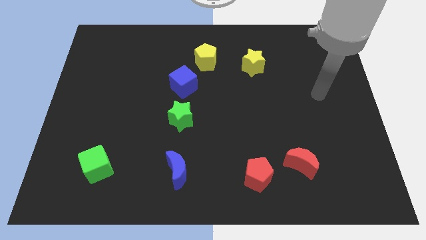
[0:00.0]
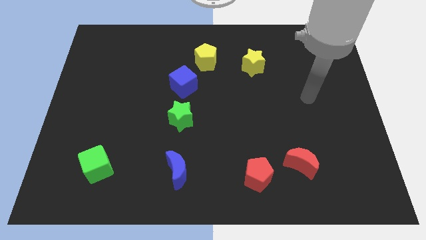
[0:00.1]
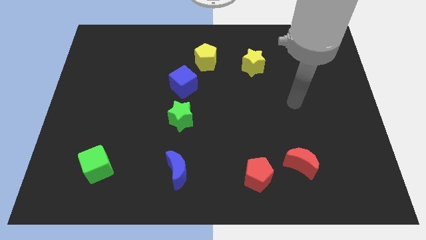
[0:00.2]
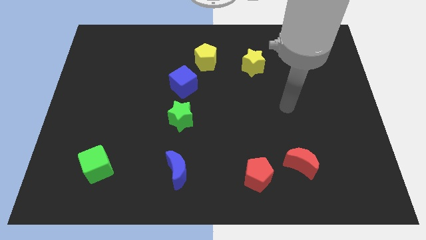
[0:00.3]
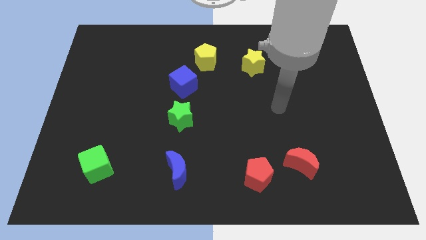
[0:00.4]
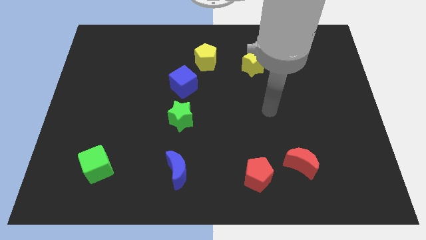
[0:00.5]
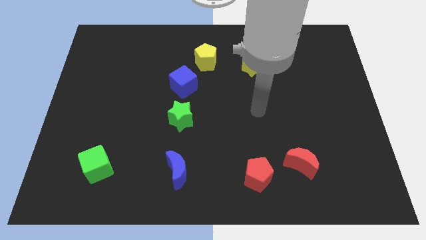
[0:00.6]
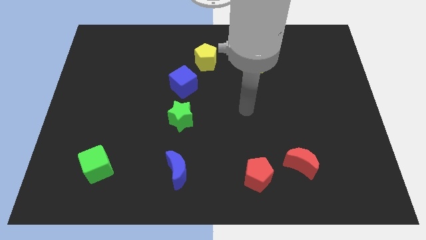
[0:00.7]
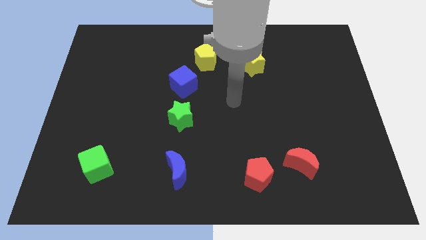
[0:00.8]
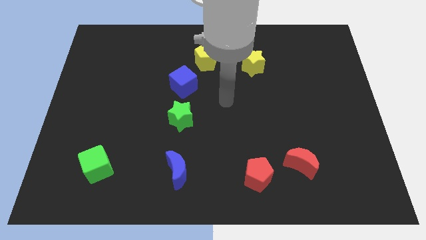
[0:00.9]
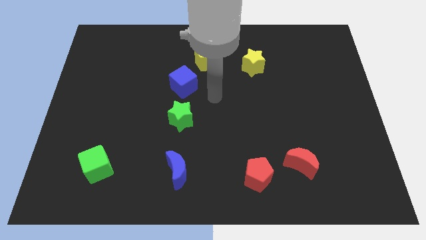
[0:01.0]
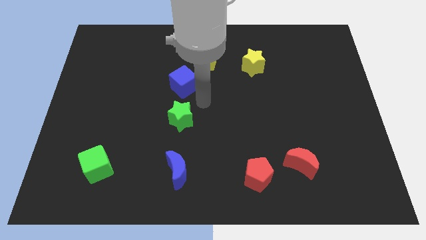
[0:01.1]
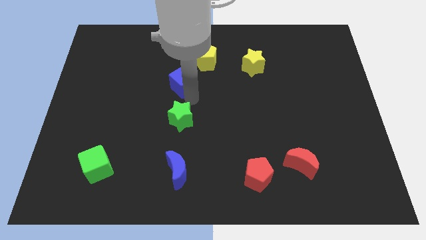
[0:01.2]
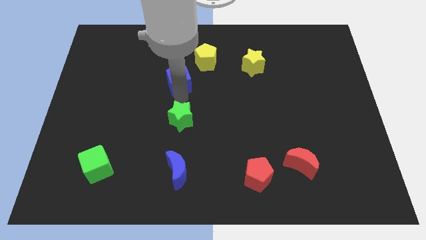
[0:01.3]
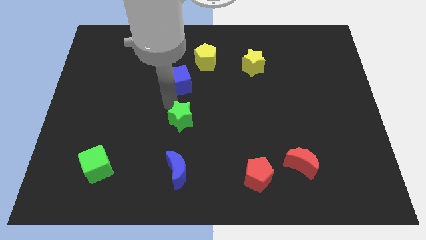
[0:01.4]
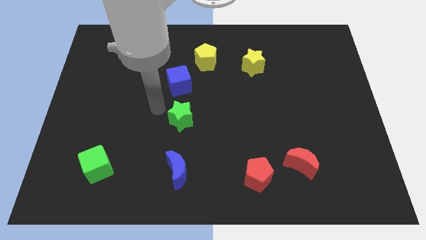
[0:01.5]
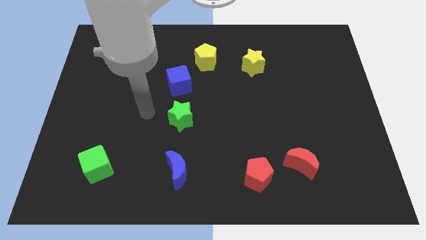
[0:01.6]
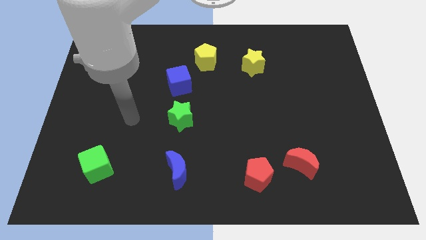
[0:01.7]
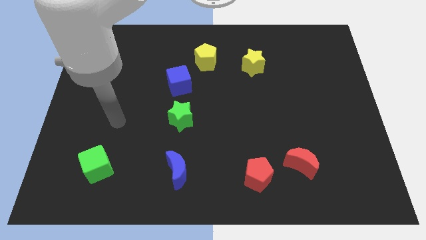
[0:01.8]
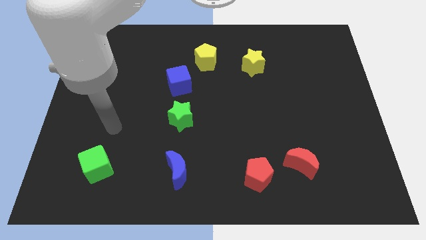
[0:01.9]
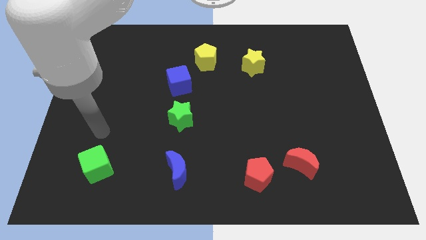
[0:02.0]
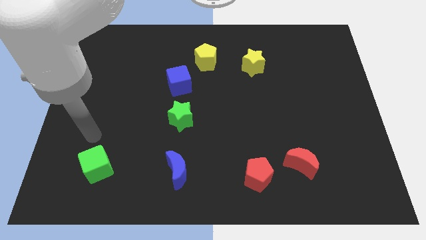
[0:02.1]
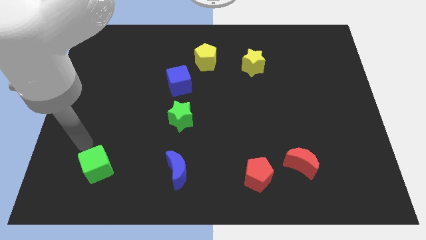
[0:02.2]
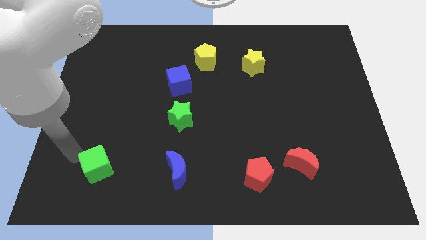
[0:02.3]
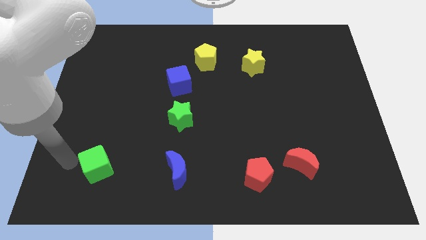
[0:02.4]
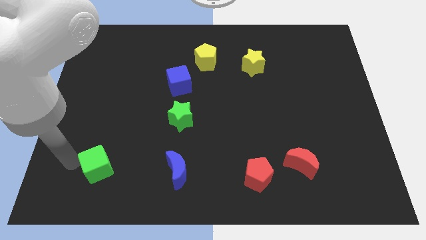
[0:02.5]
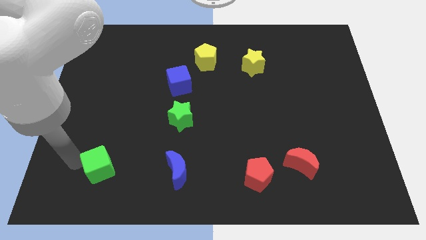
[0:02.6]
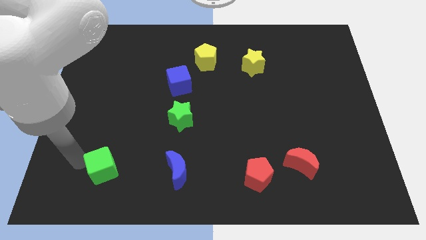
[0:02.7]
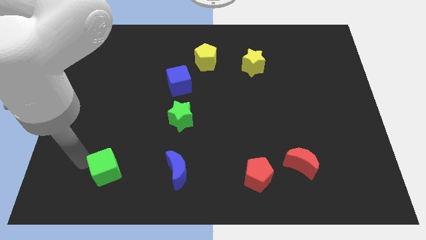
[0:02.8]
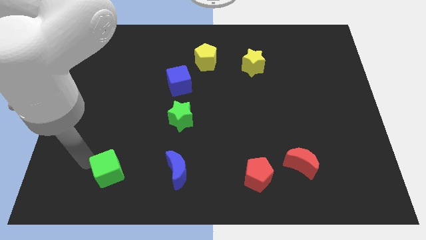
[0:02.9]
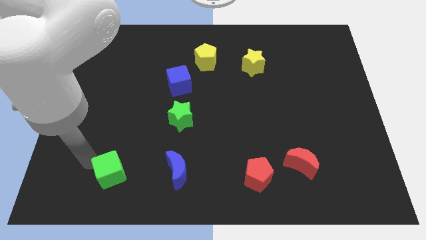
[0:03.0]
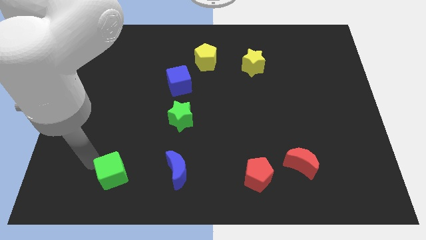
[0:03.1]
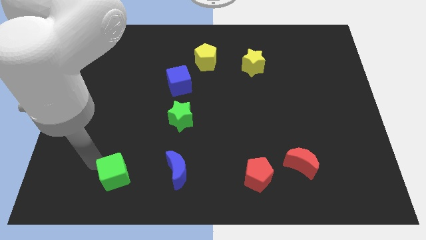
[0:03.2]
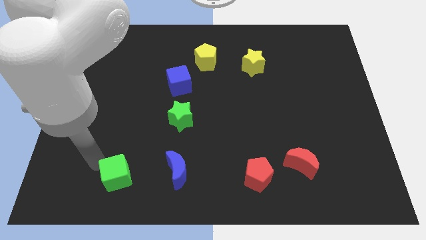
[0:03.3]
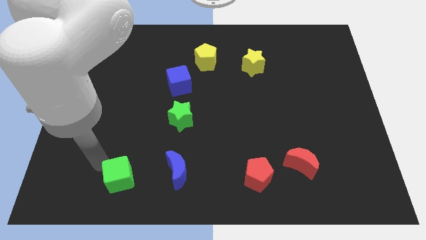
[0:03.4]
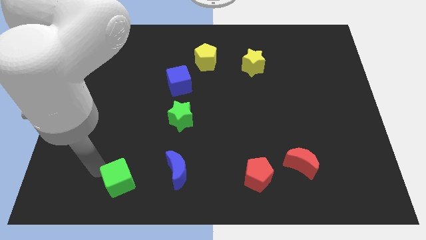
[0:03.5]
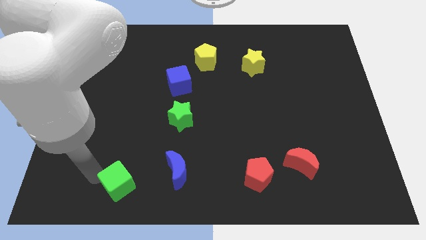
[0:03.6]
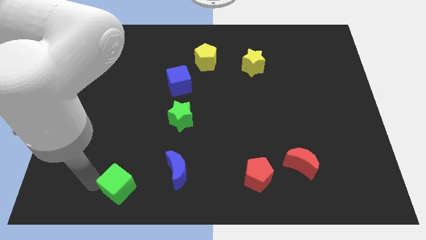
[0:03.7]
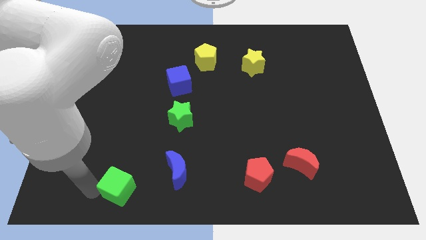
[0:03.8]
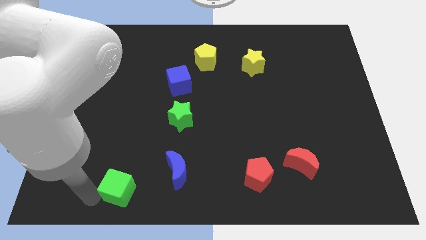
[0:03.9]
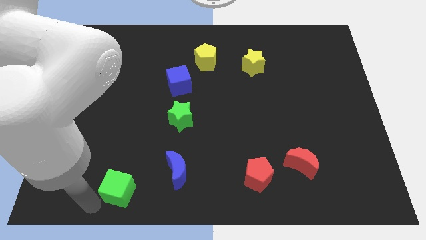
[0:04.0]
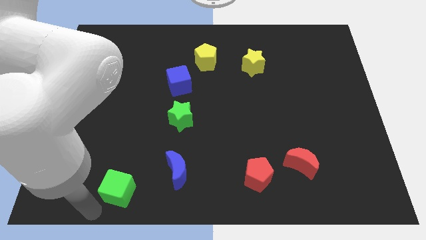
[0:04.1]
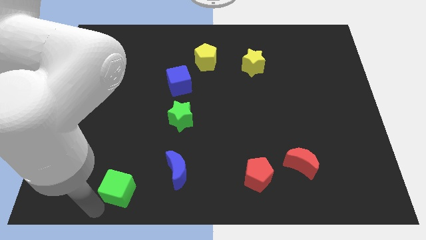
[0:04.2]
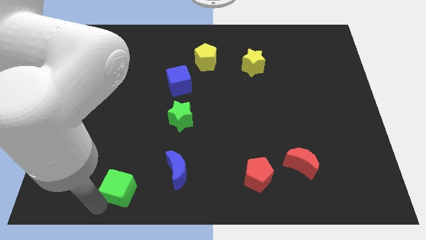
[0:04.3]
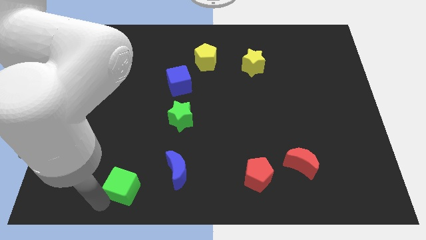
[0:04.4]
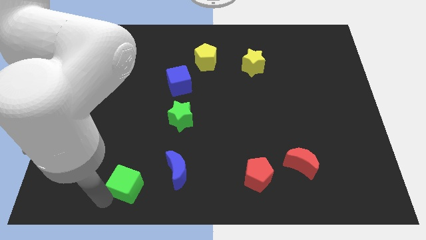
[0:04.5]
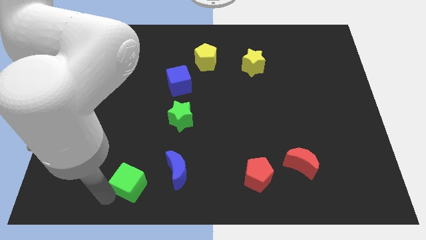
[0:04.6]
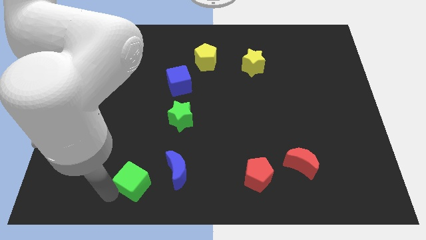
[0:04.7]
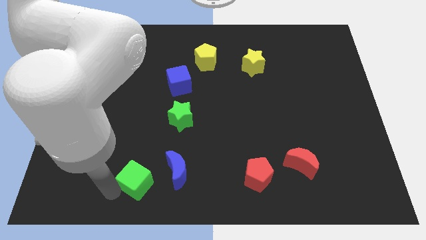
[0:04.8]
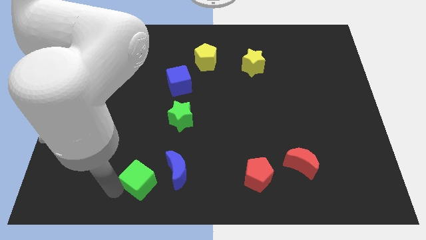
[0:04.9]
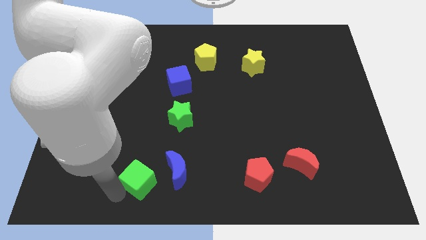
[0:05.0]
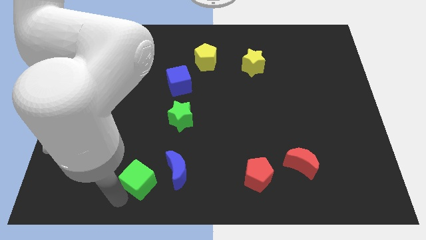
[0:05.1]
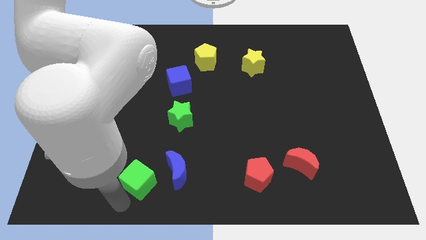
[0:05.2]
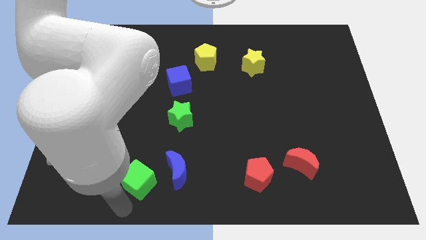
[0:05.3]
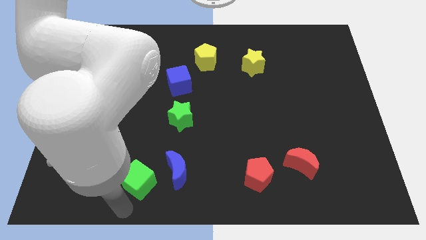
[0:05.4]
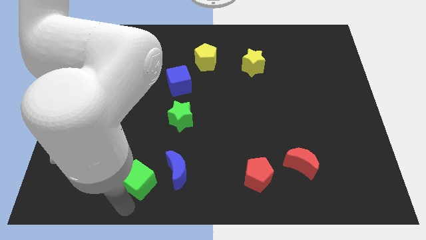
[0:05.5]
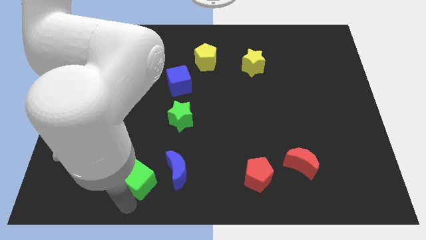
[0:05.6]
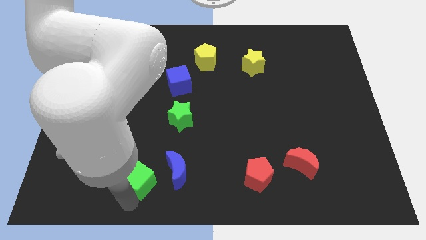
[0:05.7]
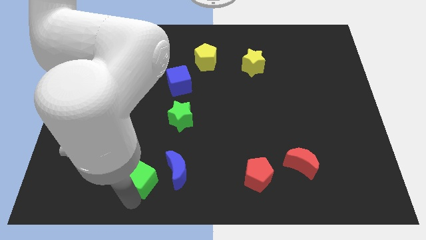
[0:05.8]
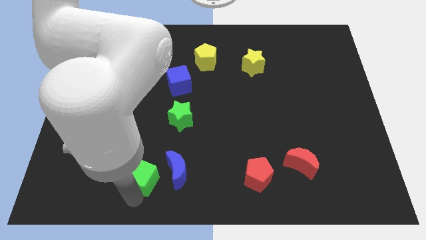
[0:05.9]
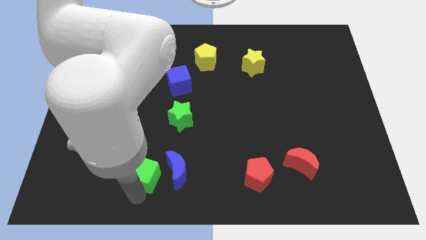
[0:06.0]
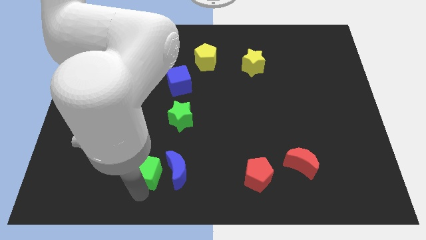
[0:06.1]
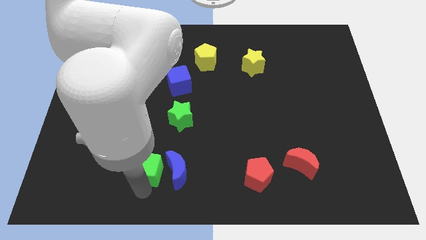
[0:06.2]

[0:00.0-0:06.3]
put the green cube next to the blue moon
